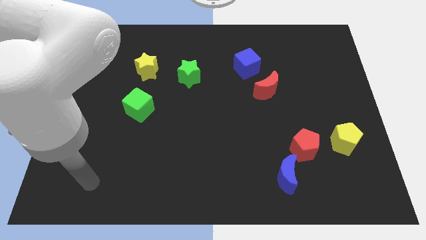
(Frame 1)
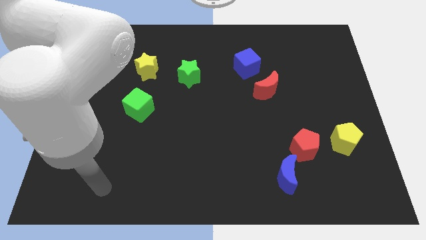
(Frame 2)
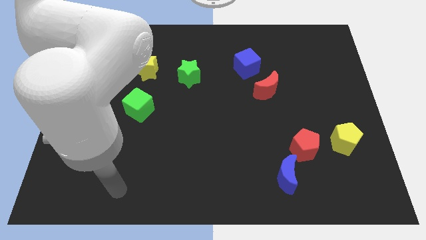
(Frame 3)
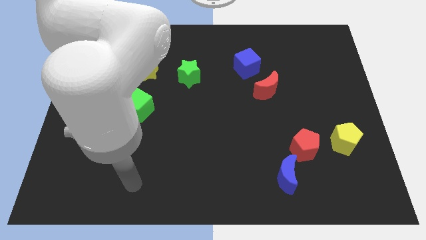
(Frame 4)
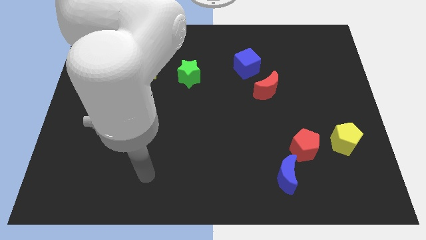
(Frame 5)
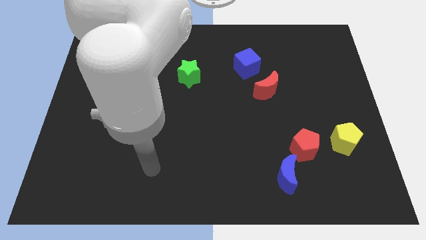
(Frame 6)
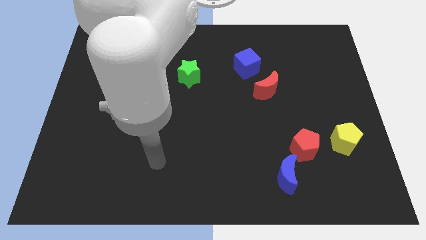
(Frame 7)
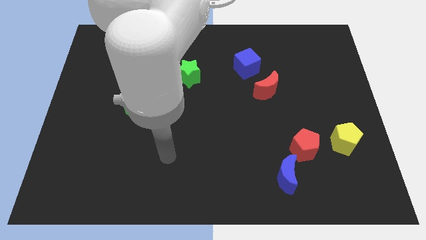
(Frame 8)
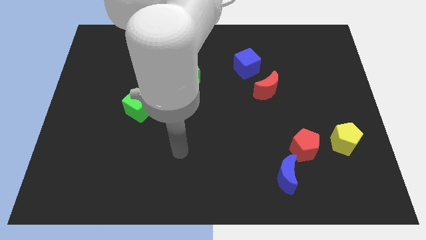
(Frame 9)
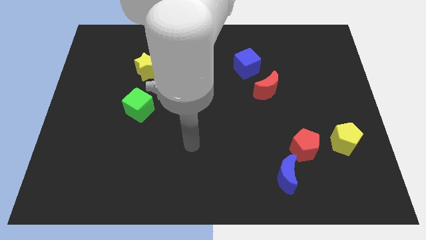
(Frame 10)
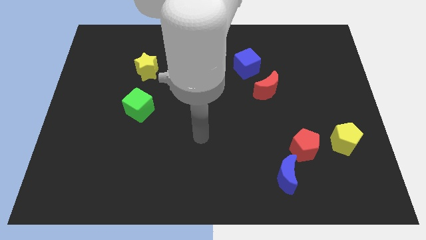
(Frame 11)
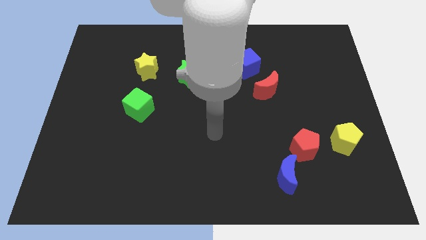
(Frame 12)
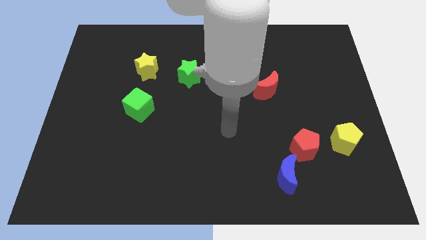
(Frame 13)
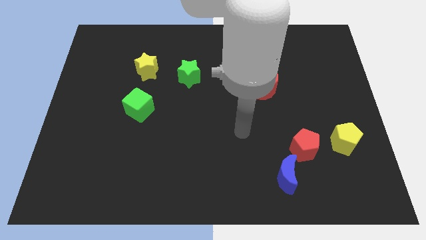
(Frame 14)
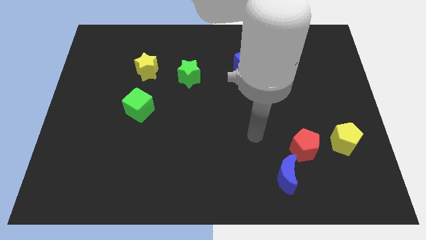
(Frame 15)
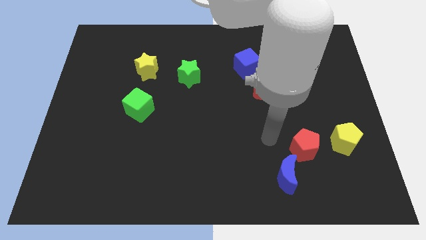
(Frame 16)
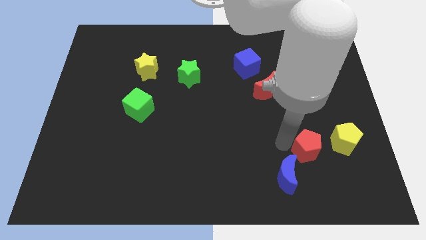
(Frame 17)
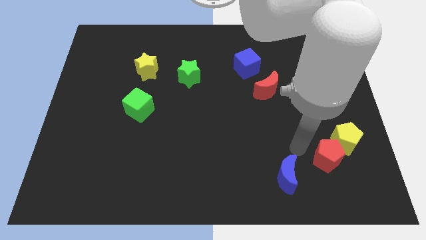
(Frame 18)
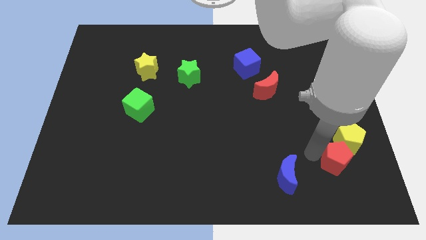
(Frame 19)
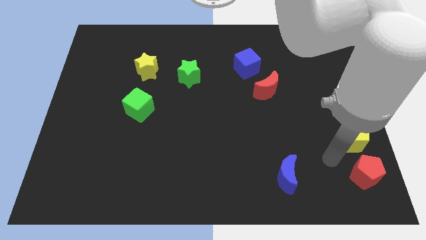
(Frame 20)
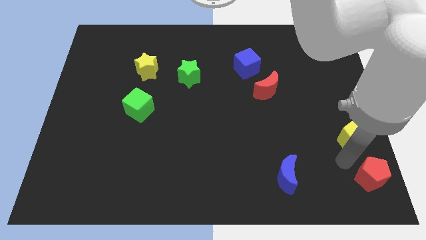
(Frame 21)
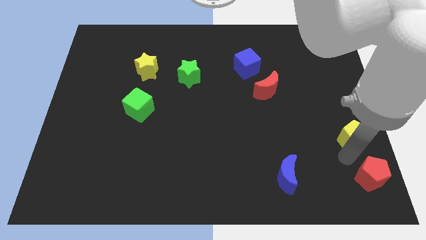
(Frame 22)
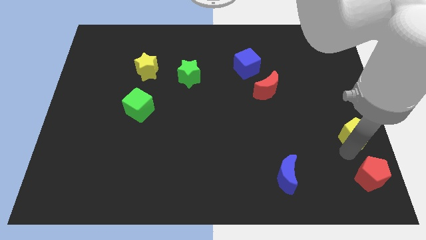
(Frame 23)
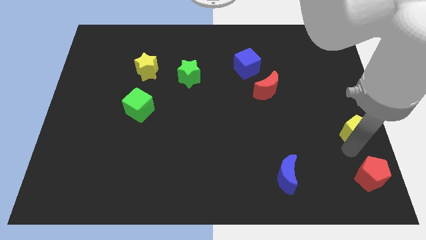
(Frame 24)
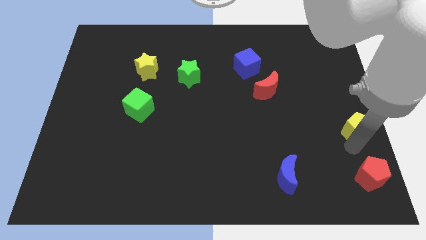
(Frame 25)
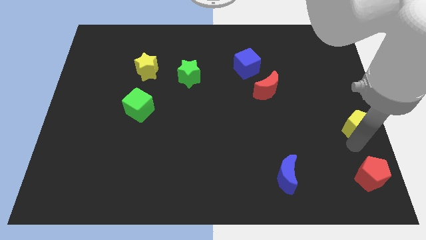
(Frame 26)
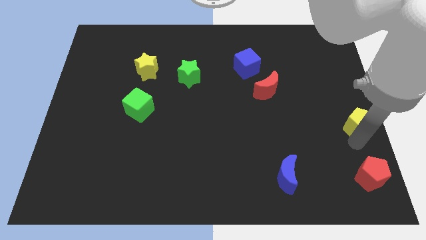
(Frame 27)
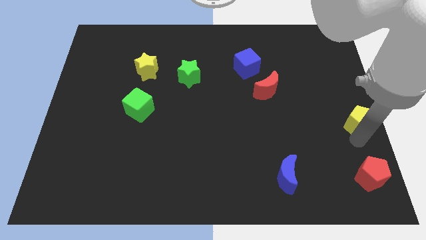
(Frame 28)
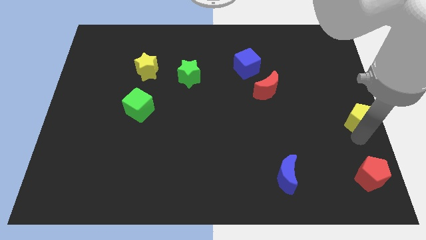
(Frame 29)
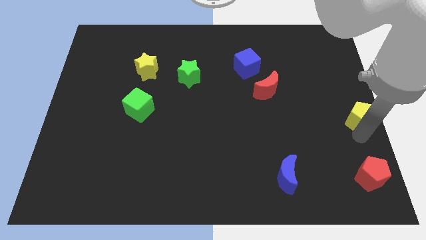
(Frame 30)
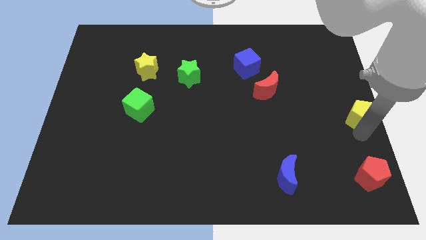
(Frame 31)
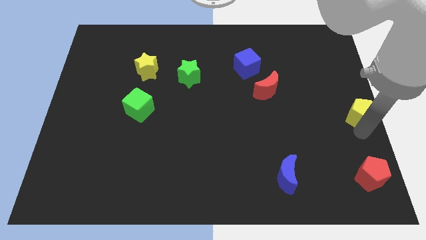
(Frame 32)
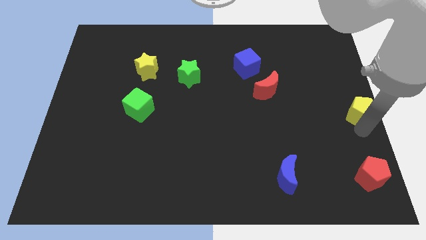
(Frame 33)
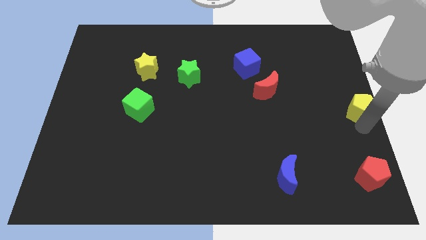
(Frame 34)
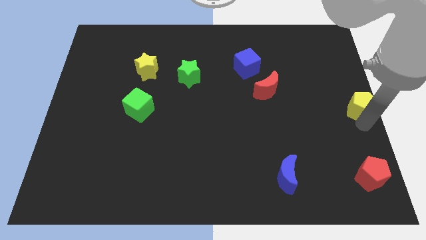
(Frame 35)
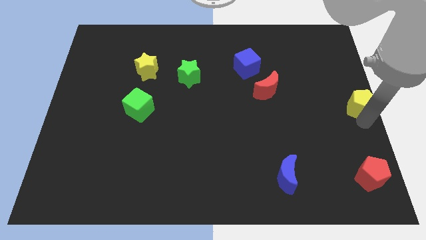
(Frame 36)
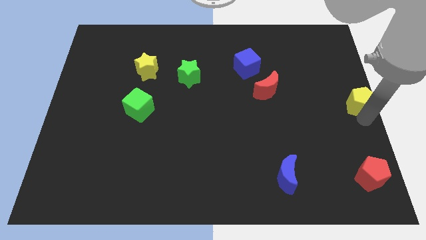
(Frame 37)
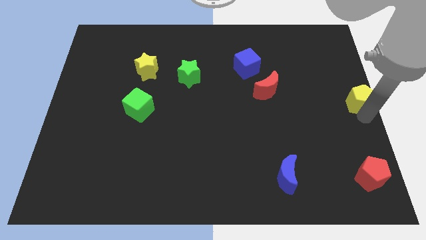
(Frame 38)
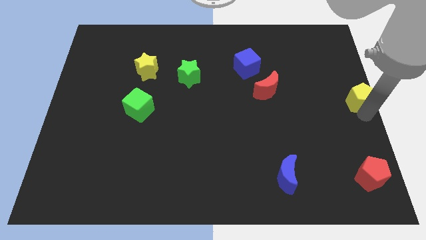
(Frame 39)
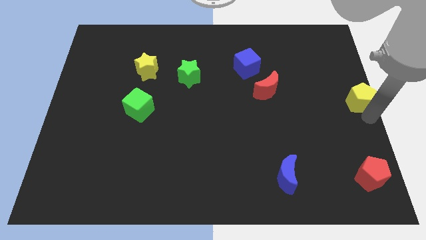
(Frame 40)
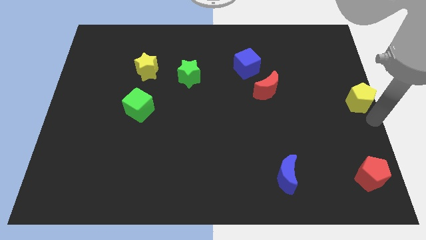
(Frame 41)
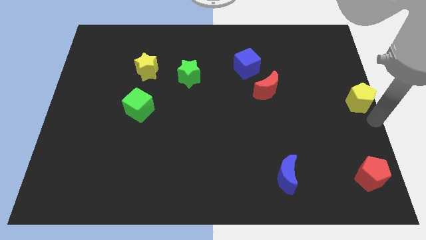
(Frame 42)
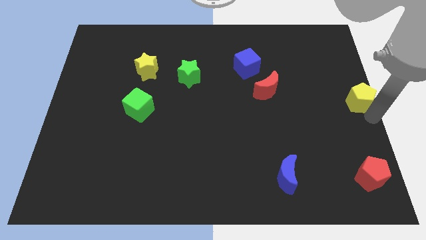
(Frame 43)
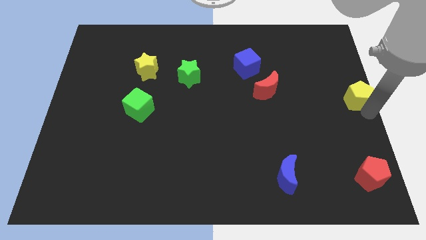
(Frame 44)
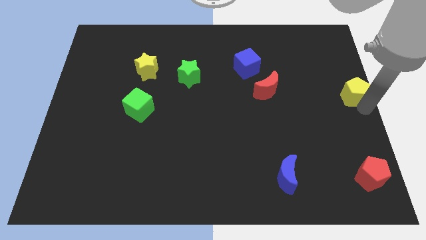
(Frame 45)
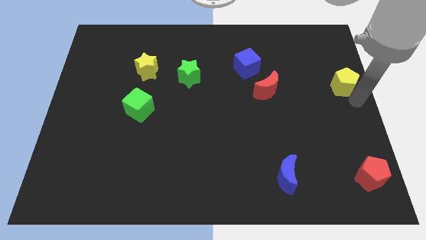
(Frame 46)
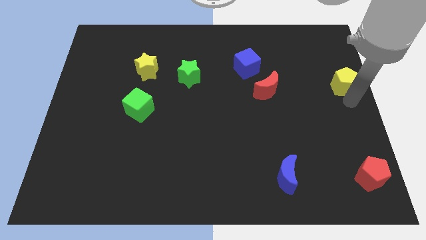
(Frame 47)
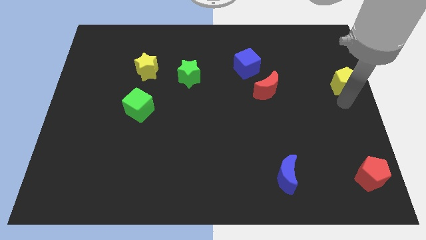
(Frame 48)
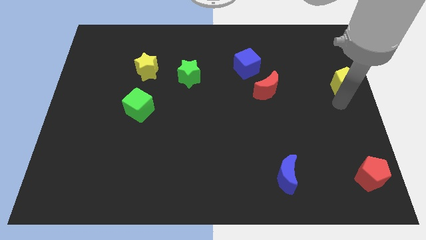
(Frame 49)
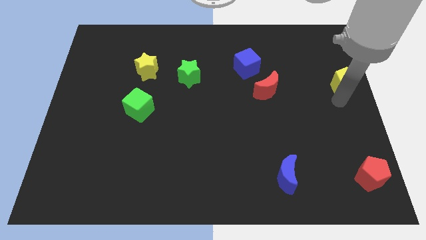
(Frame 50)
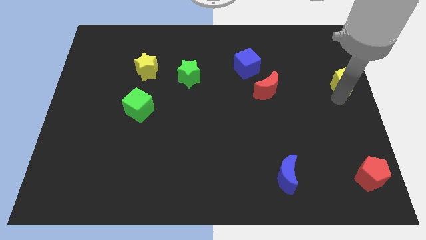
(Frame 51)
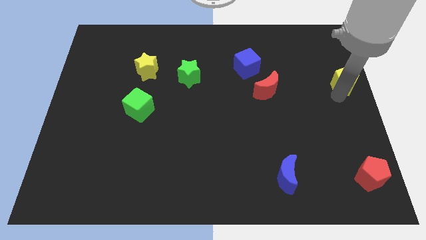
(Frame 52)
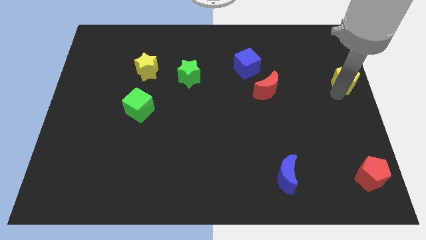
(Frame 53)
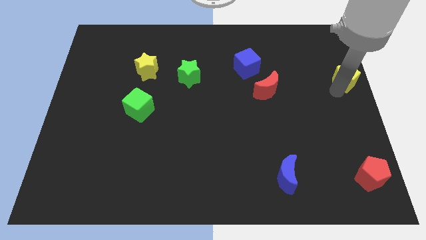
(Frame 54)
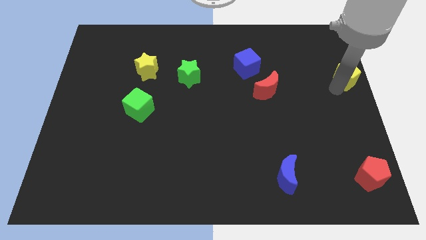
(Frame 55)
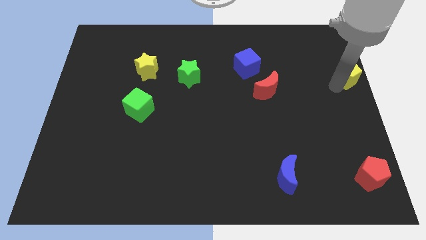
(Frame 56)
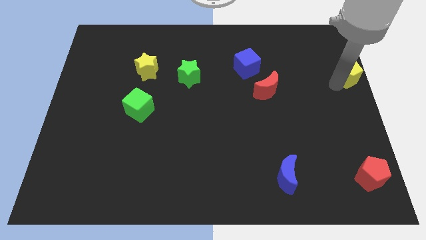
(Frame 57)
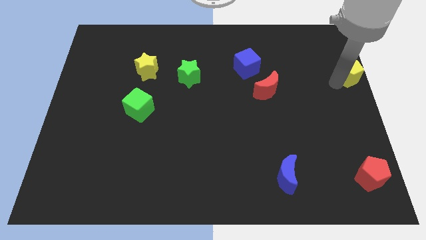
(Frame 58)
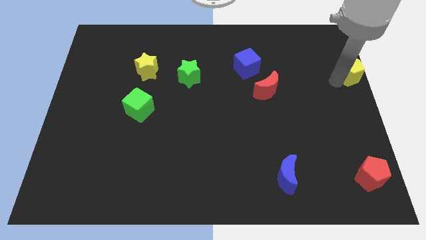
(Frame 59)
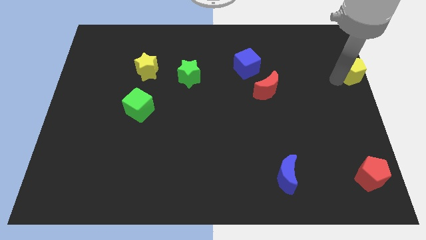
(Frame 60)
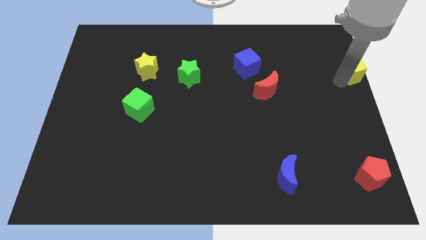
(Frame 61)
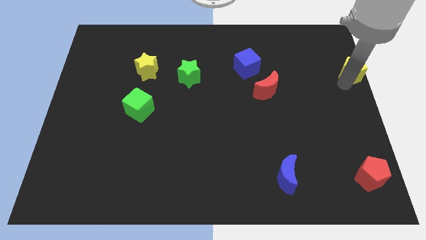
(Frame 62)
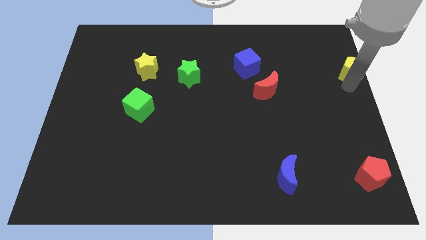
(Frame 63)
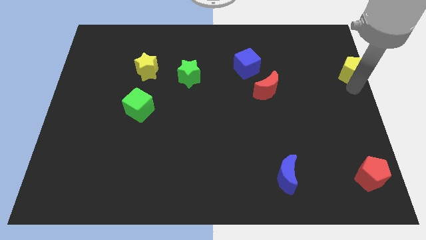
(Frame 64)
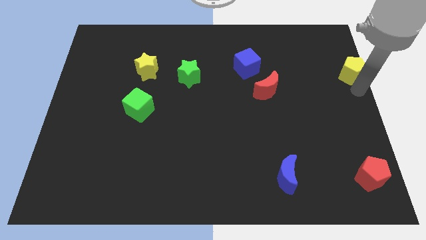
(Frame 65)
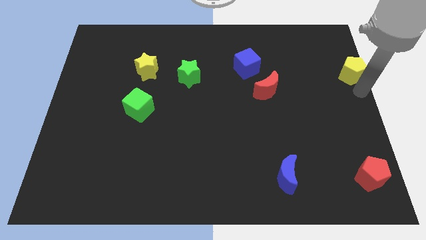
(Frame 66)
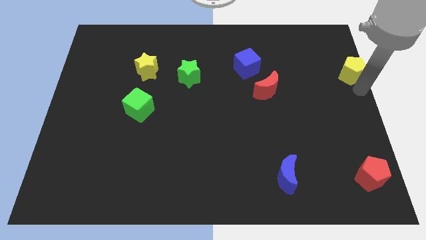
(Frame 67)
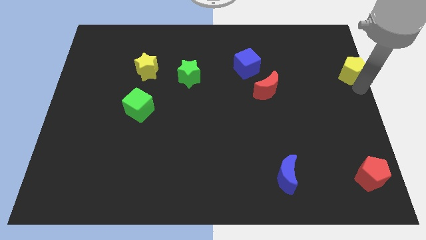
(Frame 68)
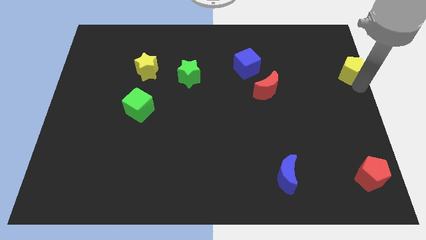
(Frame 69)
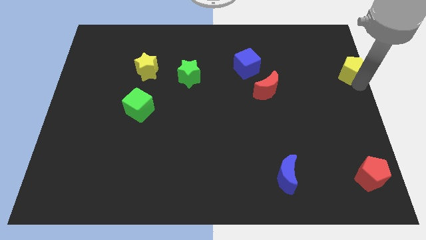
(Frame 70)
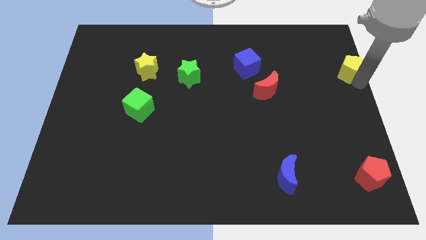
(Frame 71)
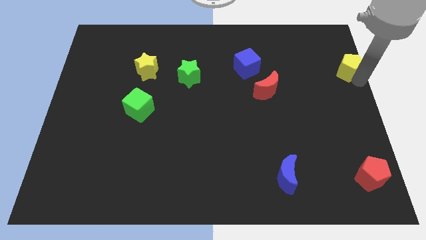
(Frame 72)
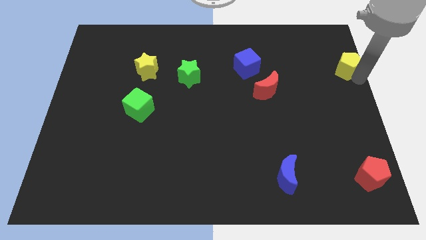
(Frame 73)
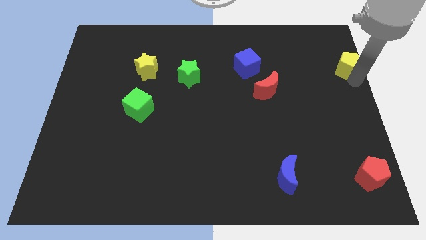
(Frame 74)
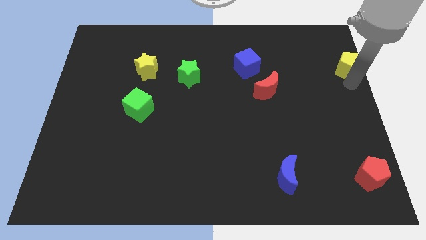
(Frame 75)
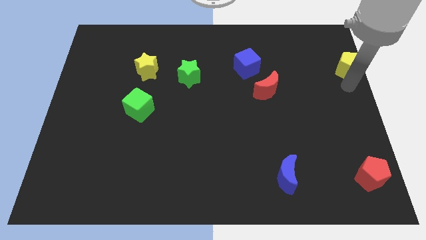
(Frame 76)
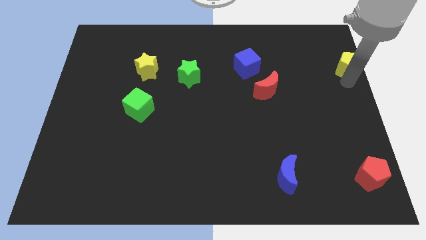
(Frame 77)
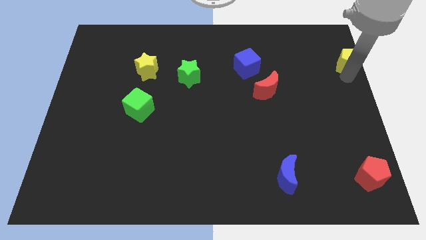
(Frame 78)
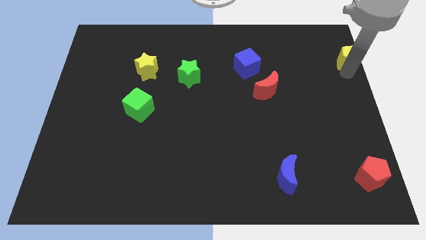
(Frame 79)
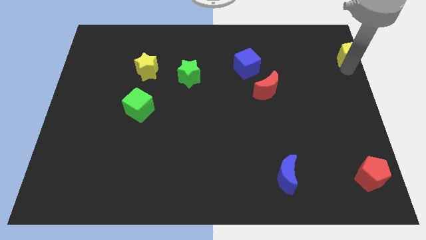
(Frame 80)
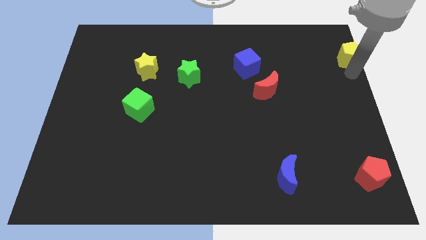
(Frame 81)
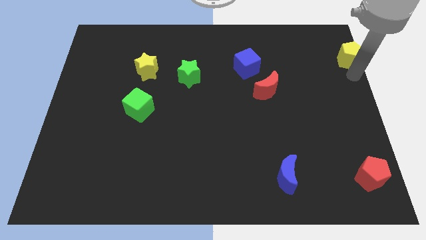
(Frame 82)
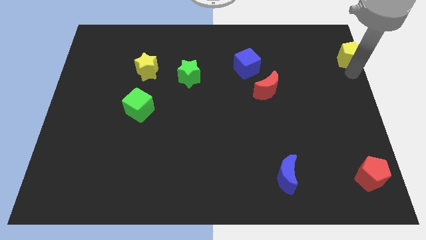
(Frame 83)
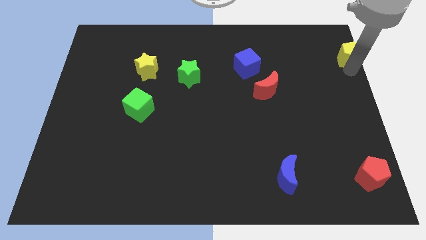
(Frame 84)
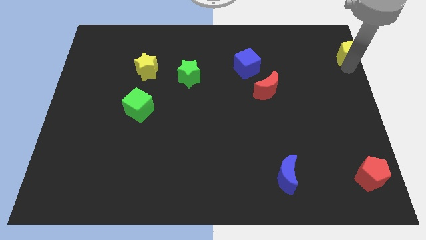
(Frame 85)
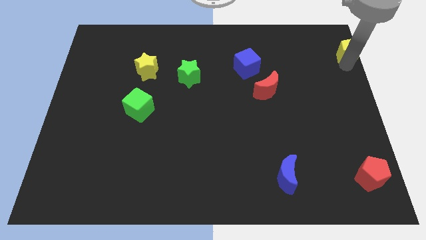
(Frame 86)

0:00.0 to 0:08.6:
put the yellow pentagon to the top right of the board
